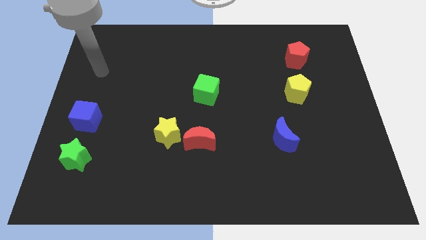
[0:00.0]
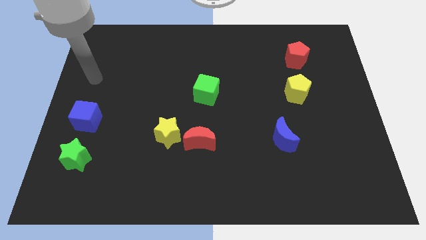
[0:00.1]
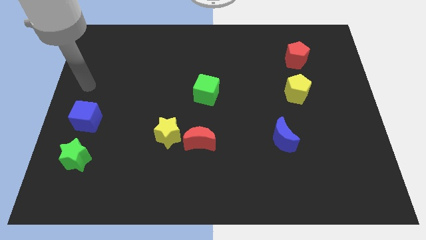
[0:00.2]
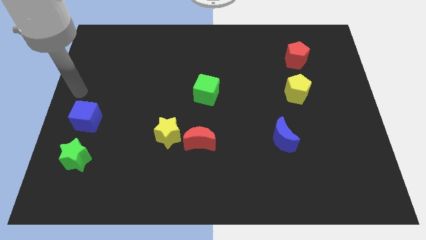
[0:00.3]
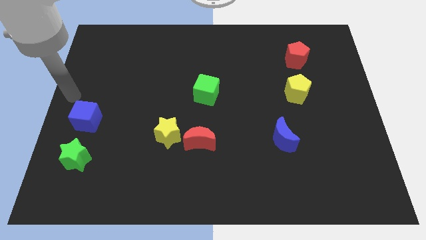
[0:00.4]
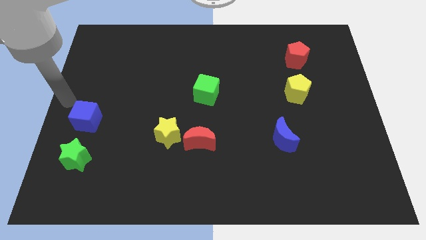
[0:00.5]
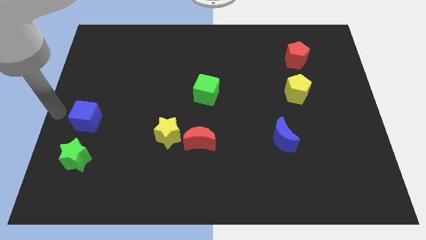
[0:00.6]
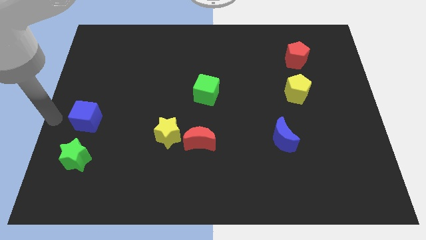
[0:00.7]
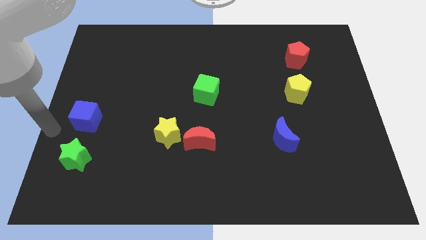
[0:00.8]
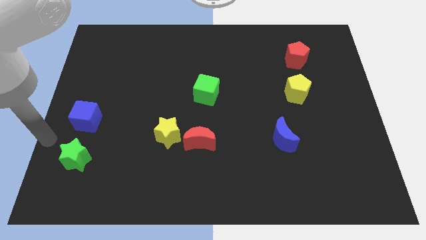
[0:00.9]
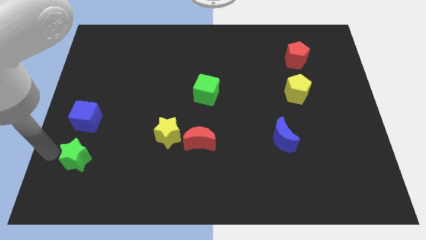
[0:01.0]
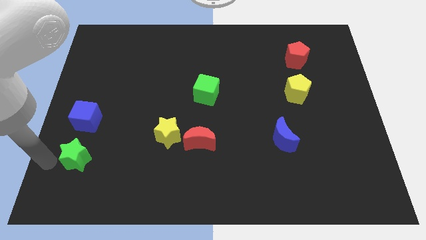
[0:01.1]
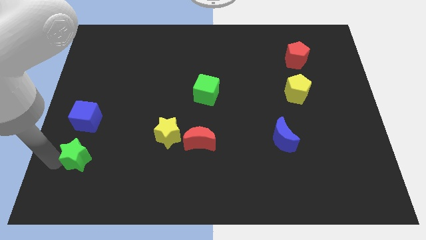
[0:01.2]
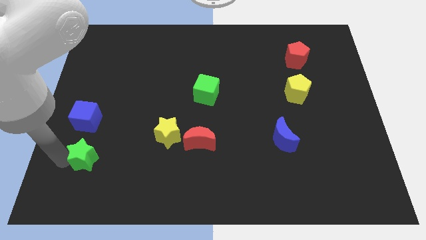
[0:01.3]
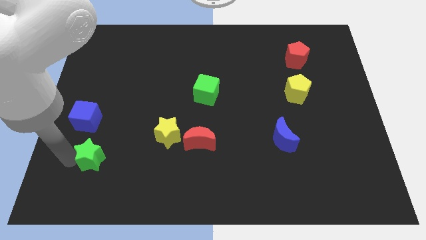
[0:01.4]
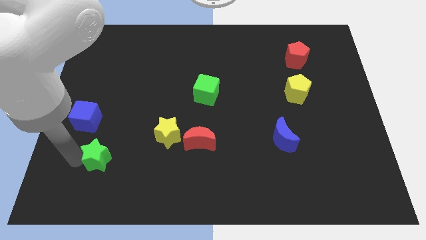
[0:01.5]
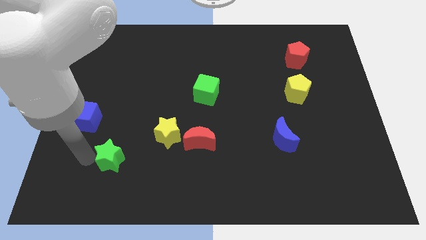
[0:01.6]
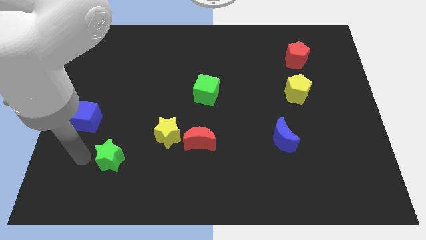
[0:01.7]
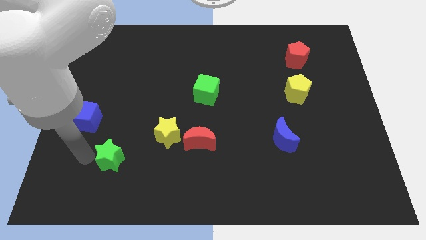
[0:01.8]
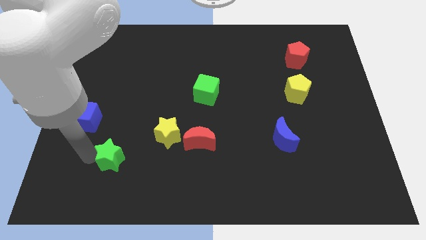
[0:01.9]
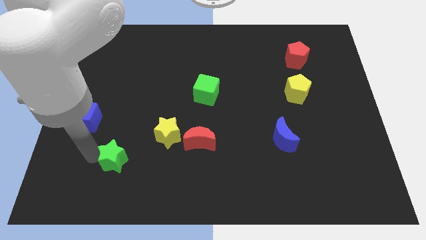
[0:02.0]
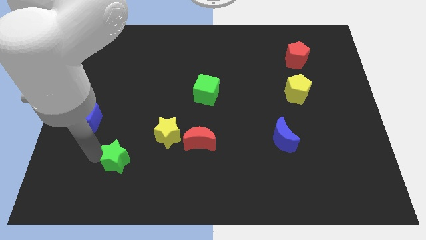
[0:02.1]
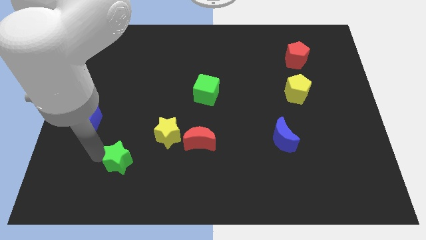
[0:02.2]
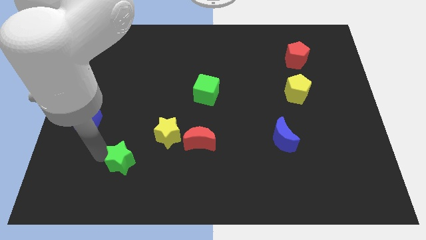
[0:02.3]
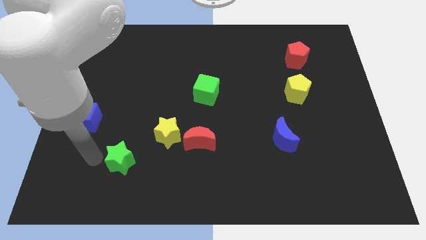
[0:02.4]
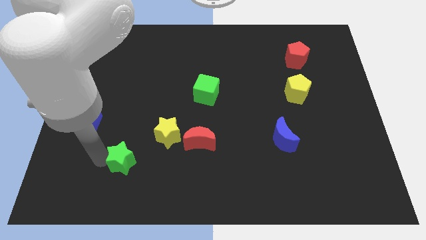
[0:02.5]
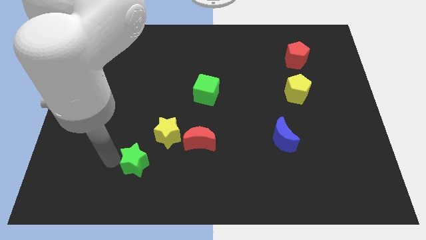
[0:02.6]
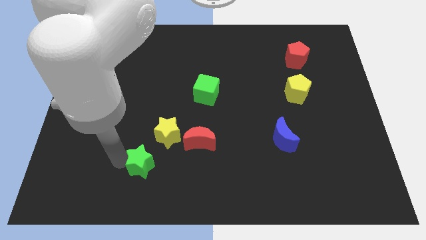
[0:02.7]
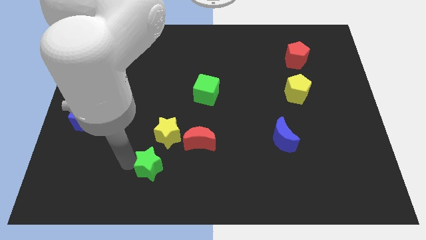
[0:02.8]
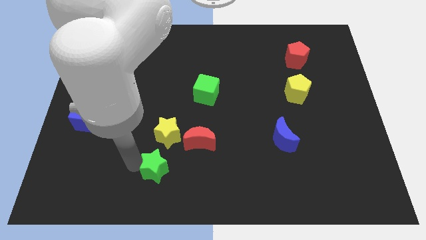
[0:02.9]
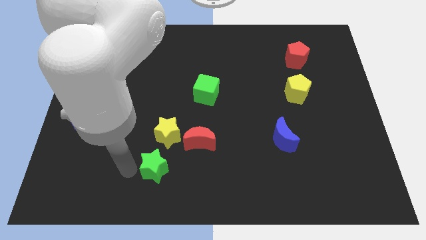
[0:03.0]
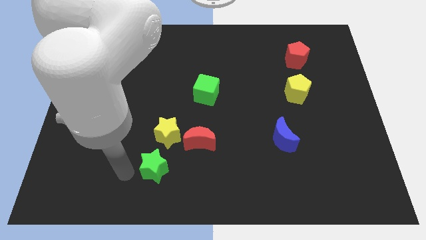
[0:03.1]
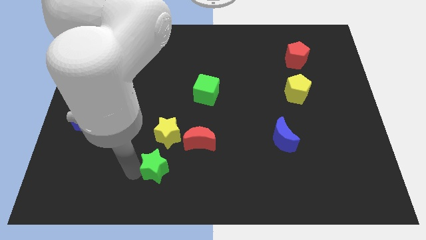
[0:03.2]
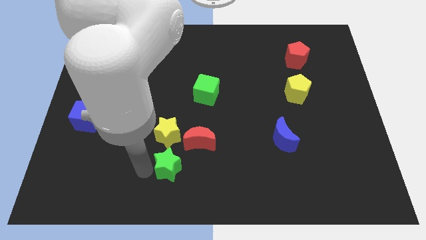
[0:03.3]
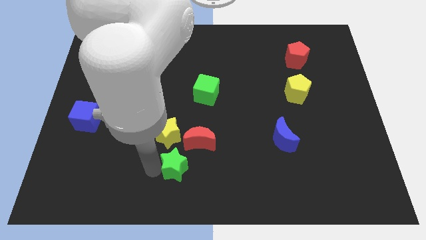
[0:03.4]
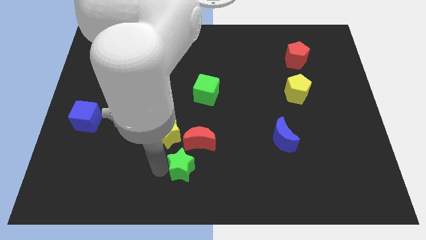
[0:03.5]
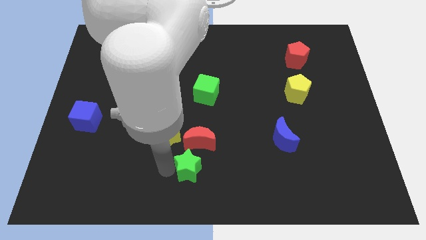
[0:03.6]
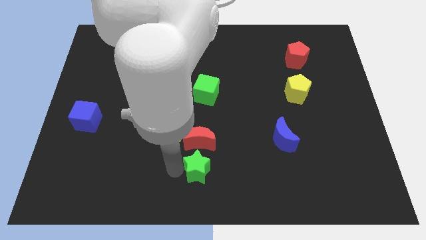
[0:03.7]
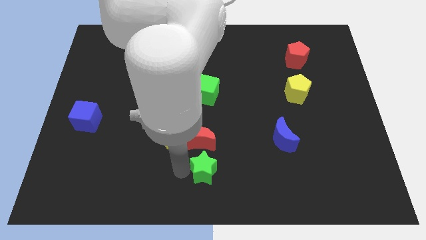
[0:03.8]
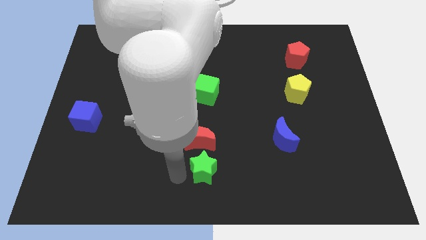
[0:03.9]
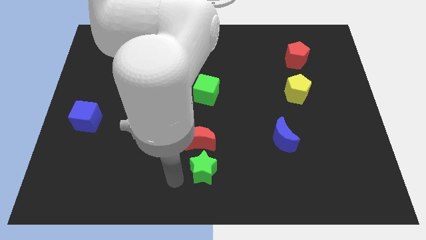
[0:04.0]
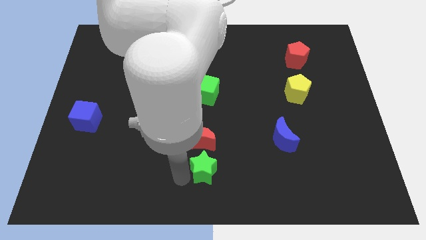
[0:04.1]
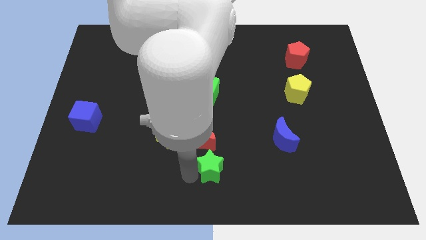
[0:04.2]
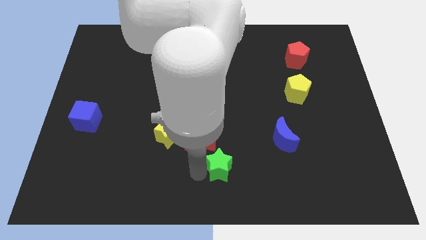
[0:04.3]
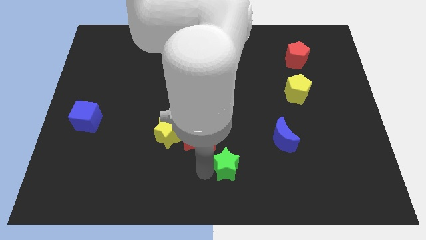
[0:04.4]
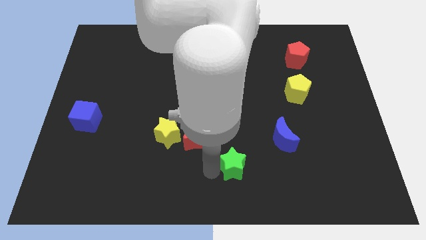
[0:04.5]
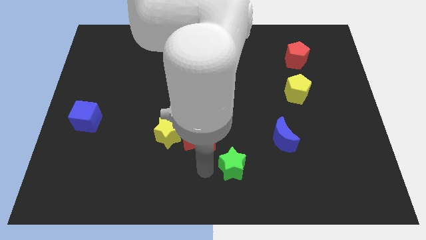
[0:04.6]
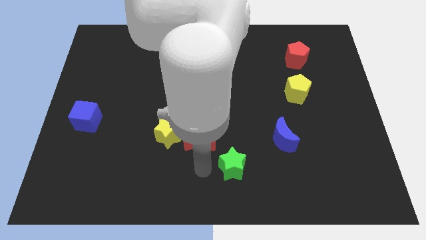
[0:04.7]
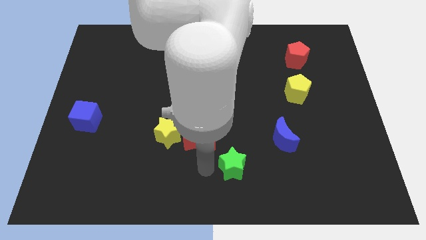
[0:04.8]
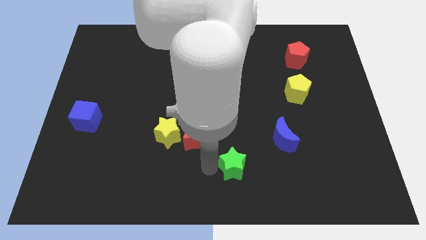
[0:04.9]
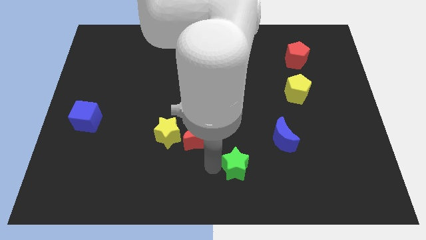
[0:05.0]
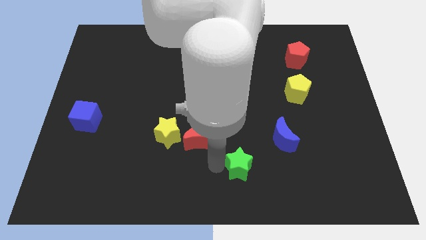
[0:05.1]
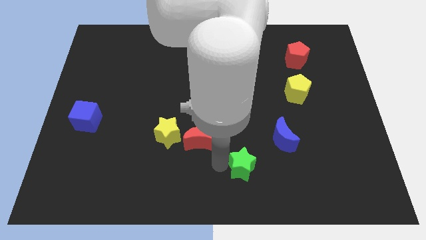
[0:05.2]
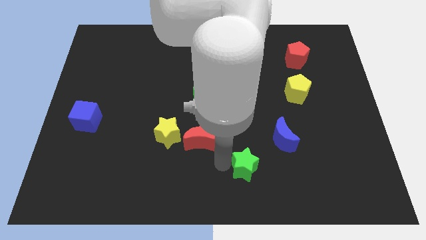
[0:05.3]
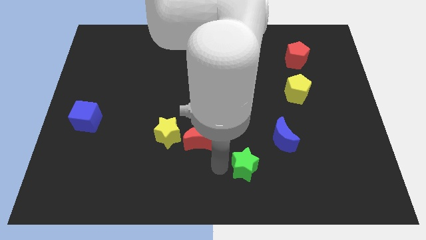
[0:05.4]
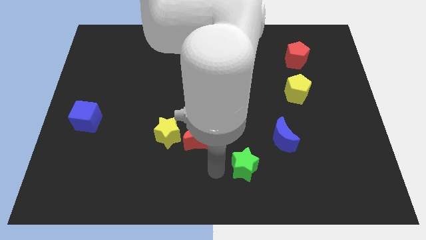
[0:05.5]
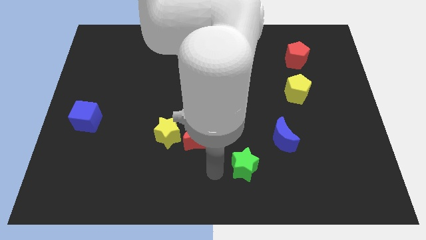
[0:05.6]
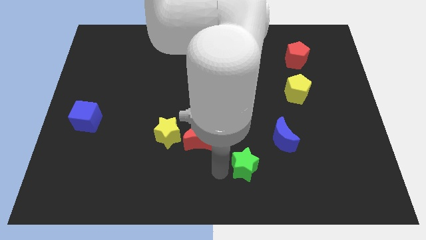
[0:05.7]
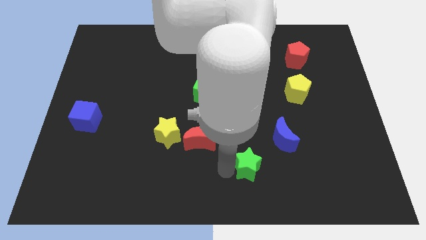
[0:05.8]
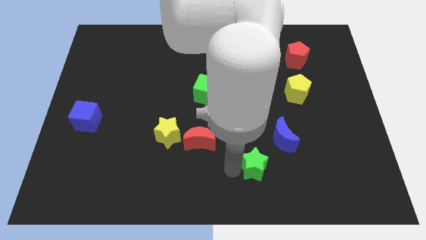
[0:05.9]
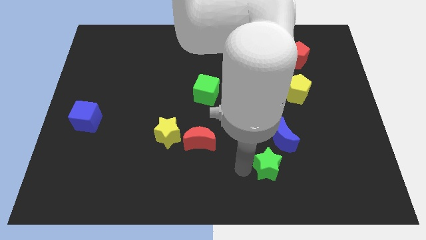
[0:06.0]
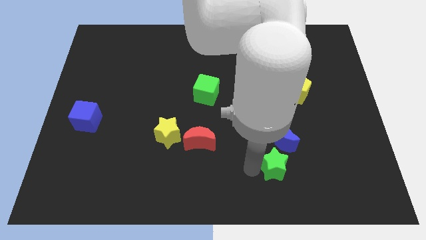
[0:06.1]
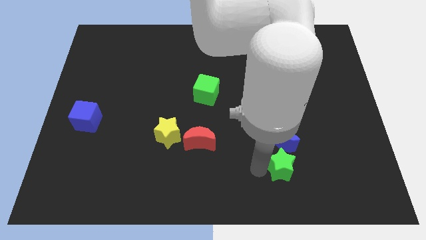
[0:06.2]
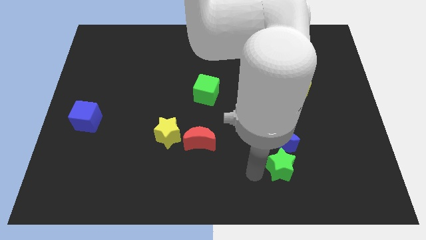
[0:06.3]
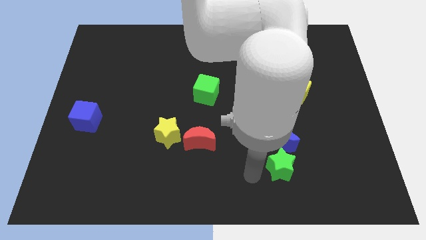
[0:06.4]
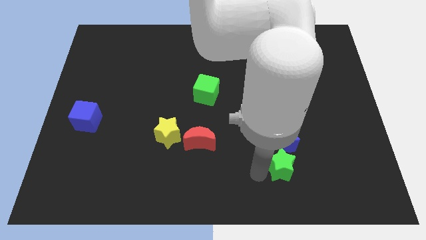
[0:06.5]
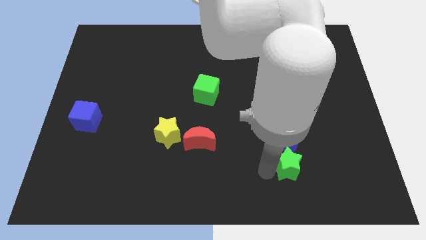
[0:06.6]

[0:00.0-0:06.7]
push the green star diagonally down and to the right of the blue moon
